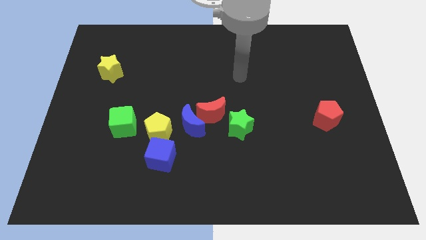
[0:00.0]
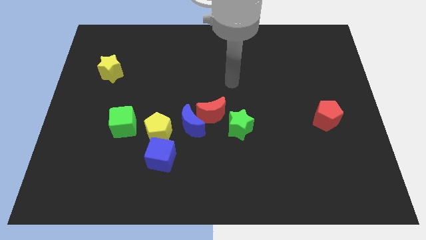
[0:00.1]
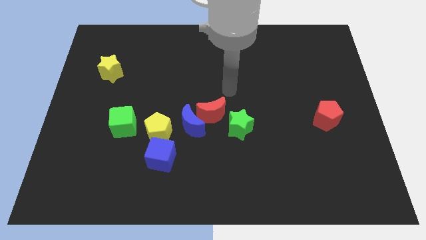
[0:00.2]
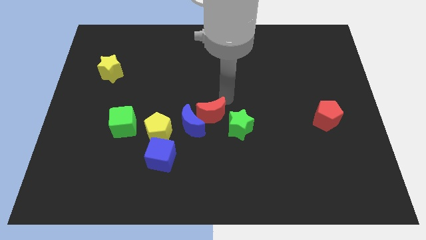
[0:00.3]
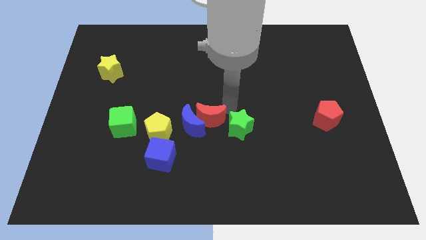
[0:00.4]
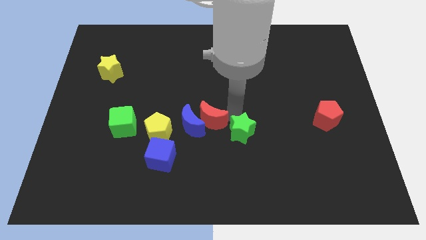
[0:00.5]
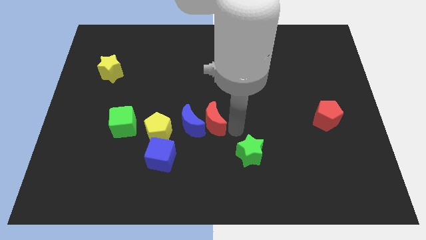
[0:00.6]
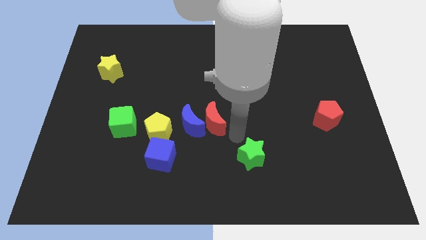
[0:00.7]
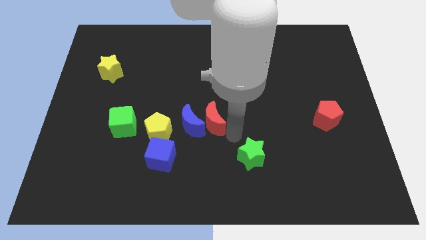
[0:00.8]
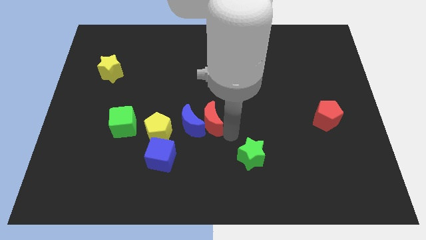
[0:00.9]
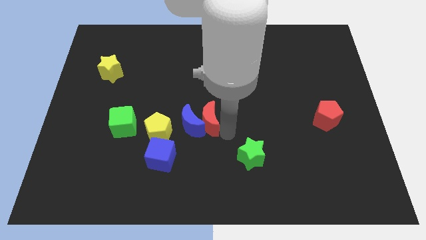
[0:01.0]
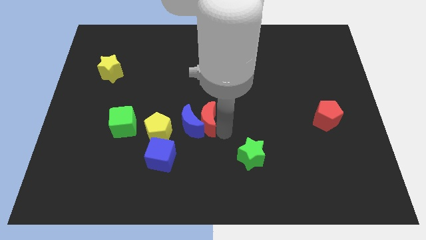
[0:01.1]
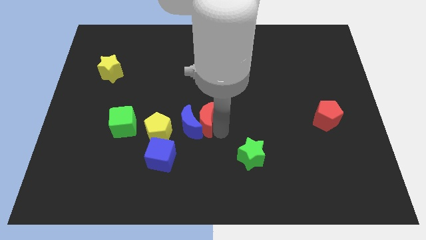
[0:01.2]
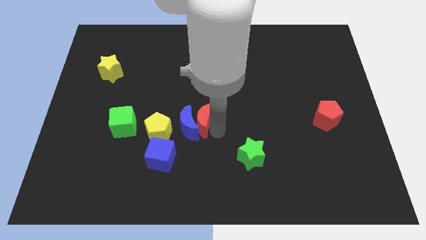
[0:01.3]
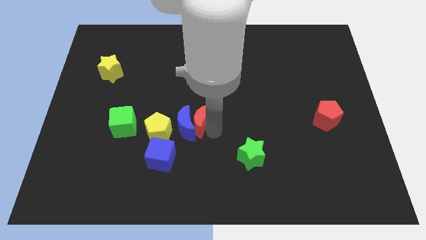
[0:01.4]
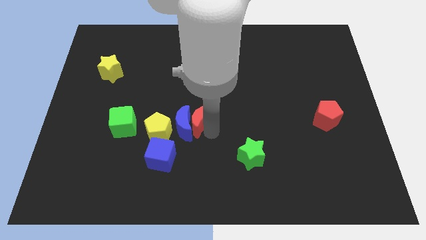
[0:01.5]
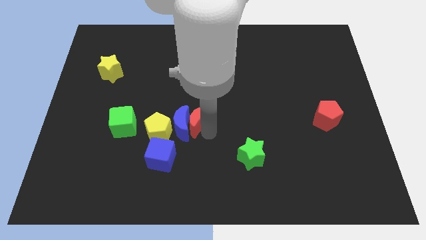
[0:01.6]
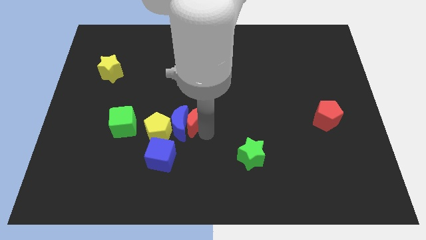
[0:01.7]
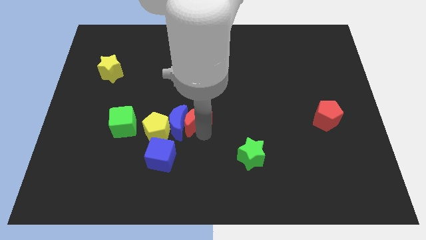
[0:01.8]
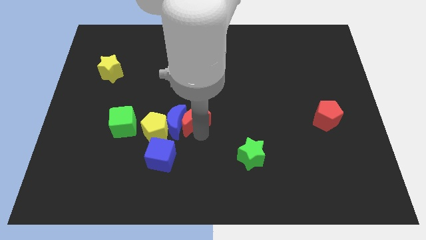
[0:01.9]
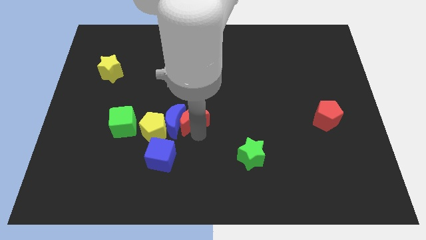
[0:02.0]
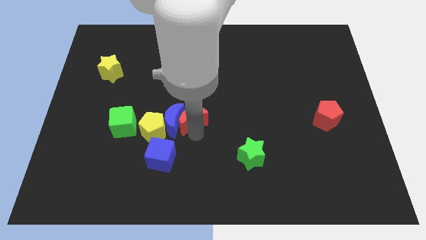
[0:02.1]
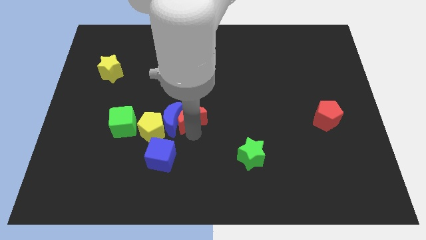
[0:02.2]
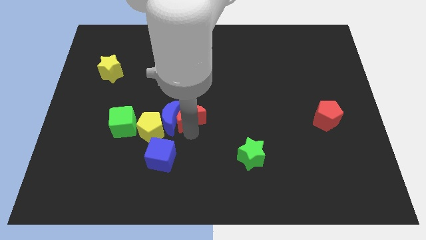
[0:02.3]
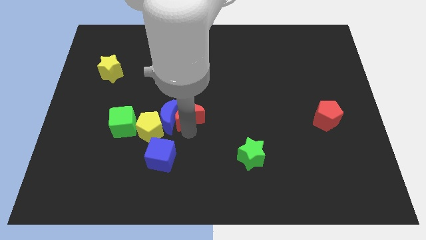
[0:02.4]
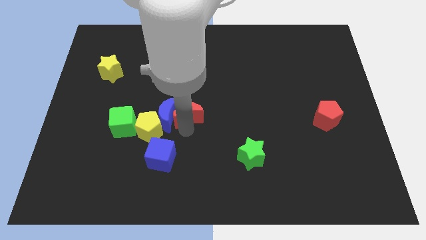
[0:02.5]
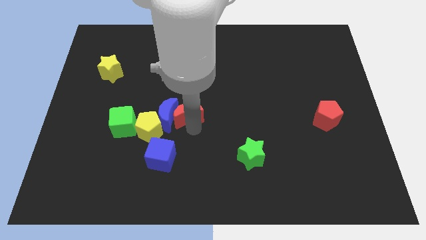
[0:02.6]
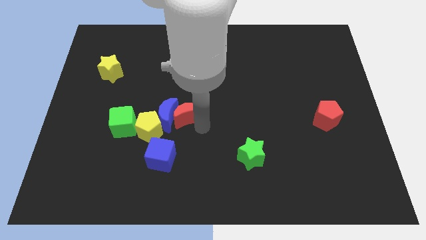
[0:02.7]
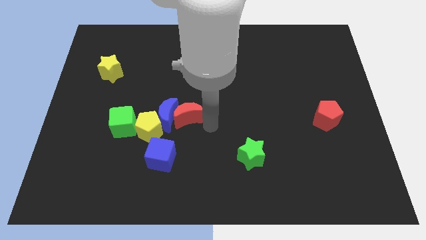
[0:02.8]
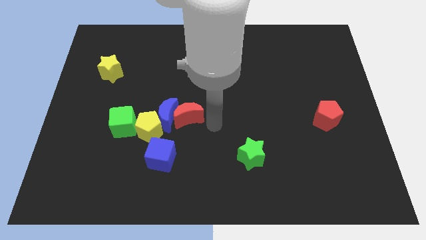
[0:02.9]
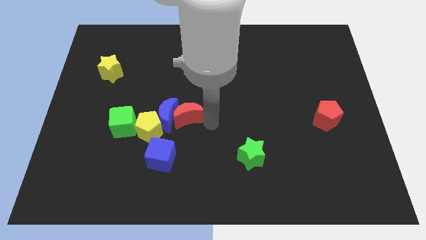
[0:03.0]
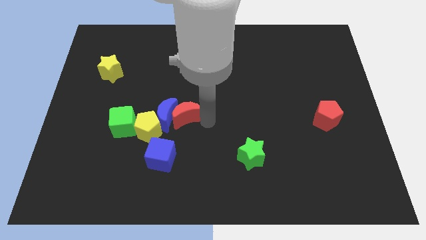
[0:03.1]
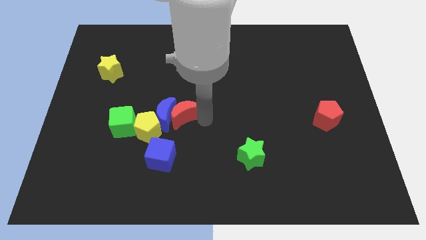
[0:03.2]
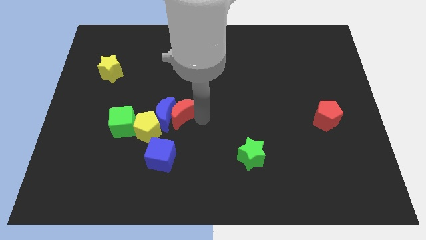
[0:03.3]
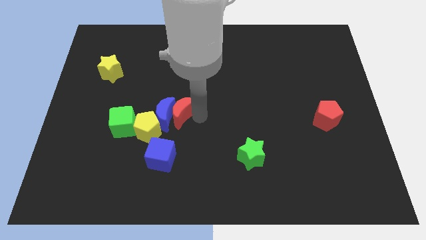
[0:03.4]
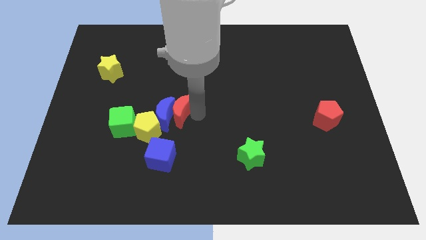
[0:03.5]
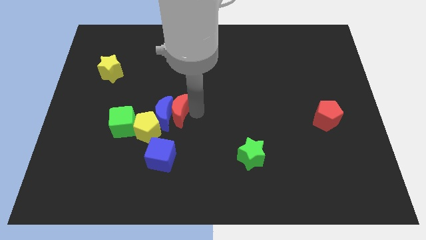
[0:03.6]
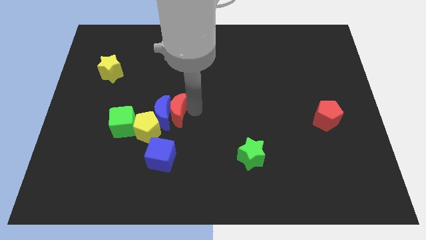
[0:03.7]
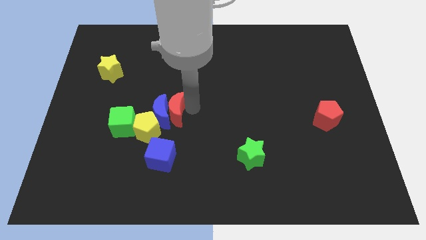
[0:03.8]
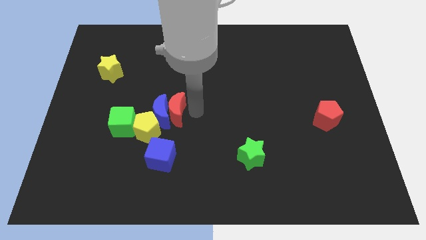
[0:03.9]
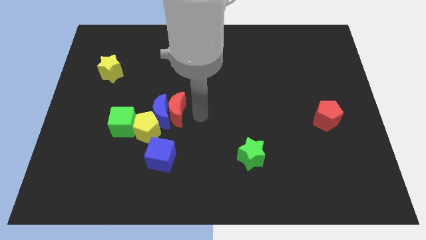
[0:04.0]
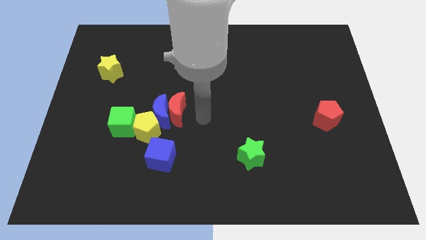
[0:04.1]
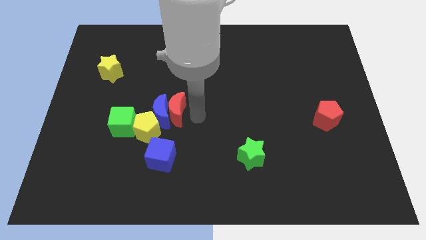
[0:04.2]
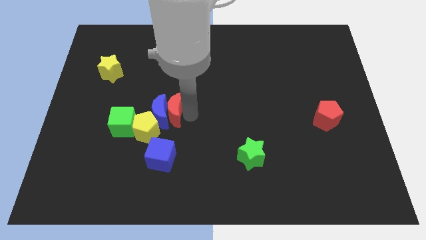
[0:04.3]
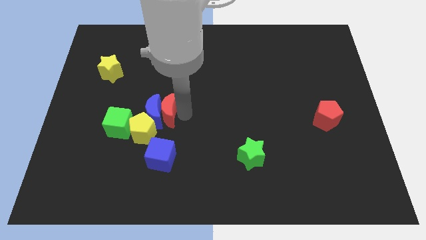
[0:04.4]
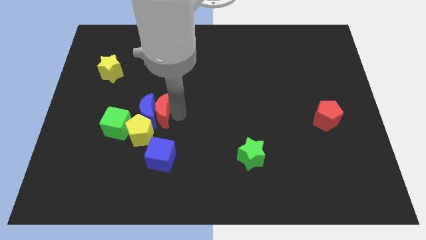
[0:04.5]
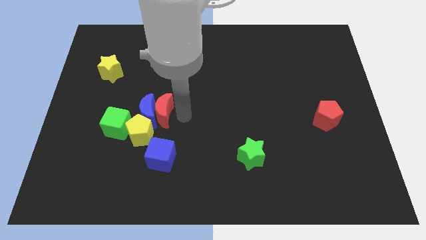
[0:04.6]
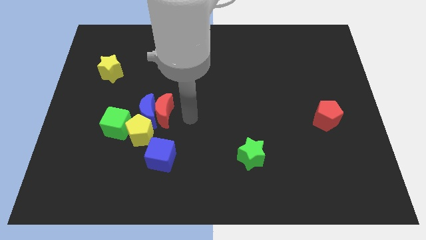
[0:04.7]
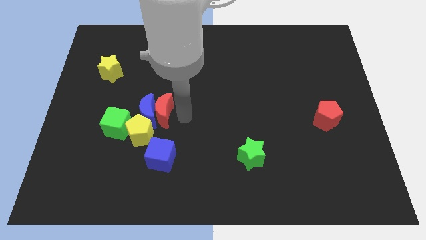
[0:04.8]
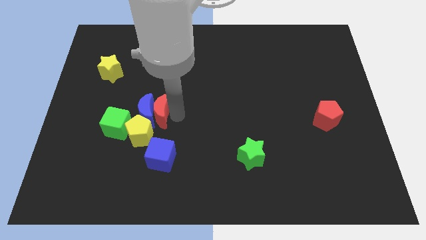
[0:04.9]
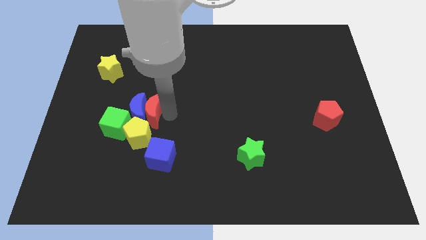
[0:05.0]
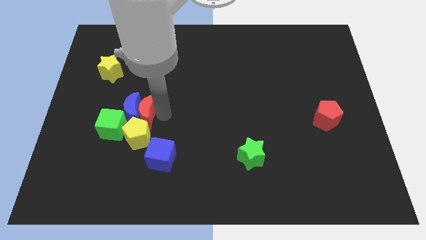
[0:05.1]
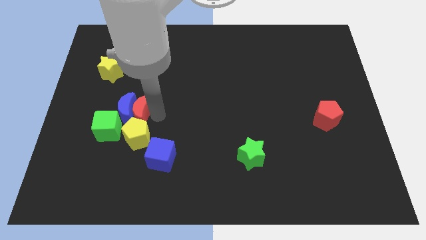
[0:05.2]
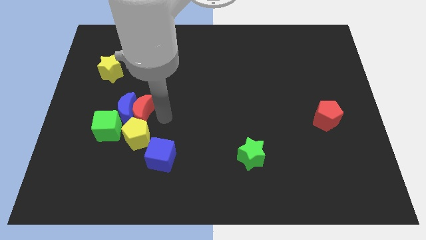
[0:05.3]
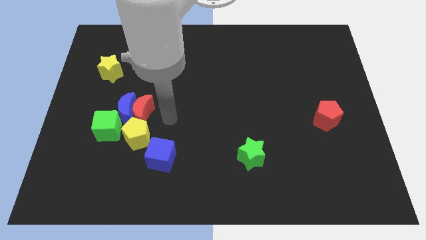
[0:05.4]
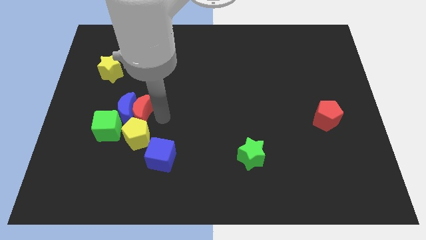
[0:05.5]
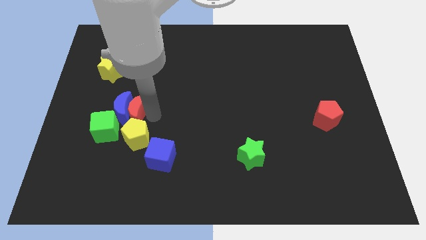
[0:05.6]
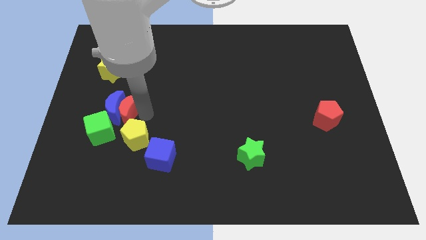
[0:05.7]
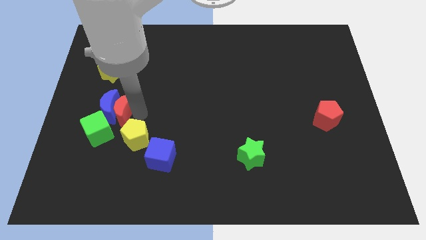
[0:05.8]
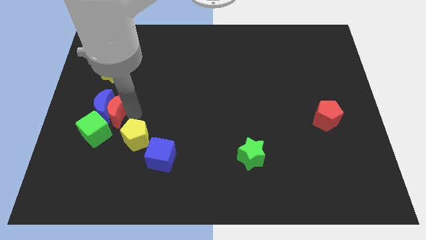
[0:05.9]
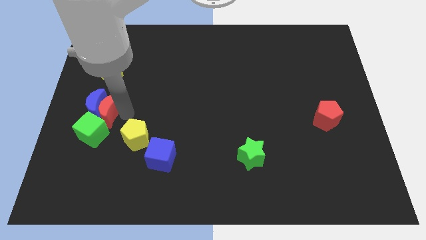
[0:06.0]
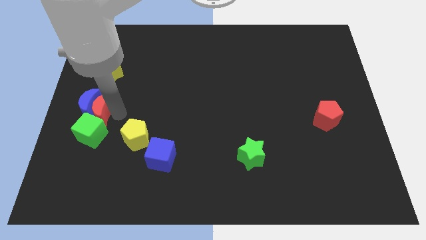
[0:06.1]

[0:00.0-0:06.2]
put the red moon to the left side
